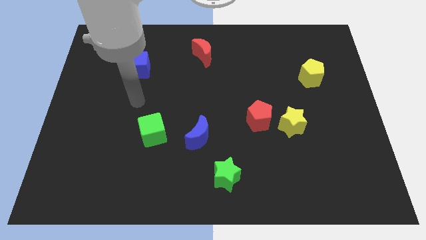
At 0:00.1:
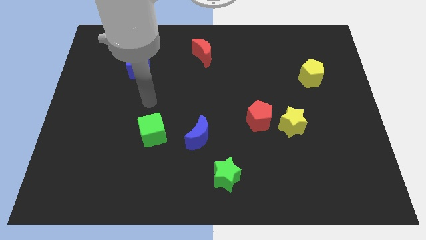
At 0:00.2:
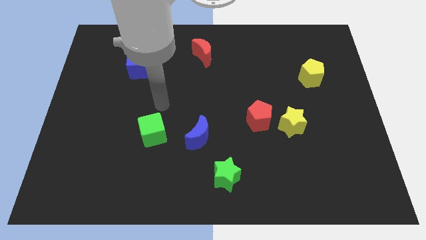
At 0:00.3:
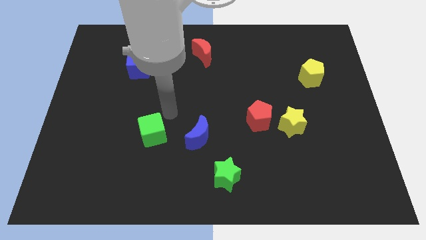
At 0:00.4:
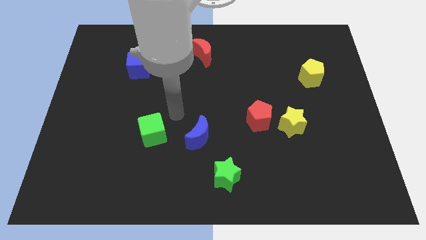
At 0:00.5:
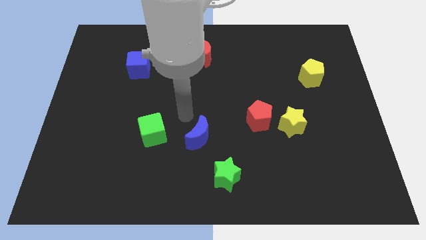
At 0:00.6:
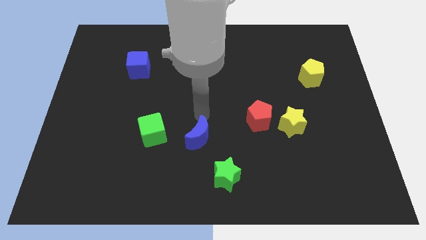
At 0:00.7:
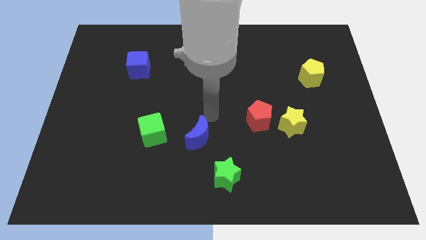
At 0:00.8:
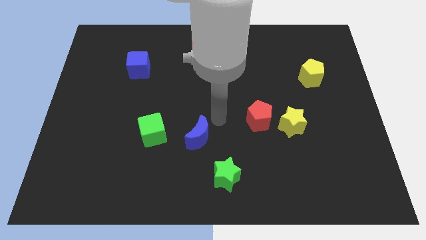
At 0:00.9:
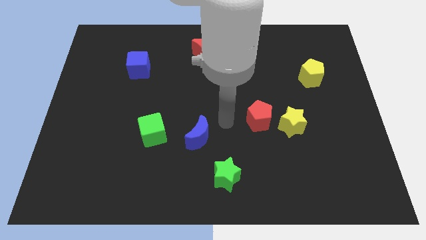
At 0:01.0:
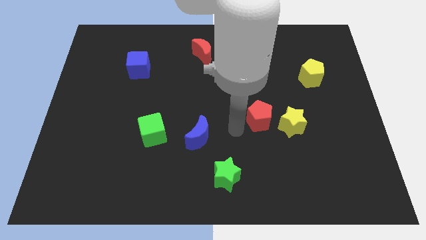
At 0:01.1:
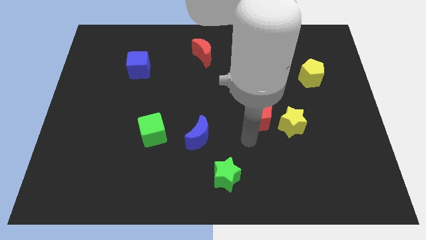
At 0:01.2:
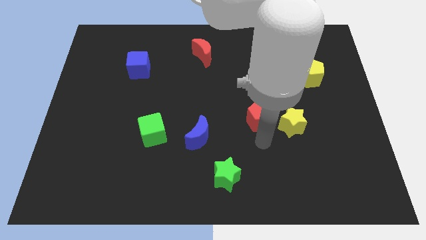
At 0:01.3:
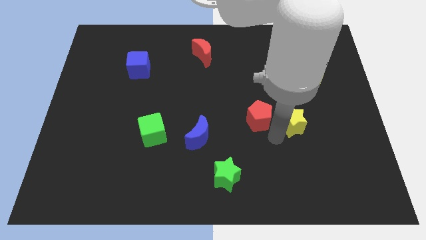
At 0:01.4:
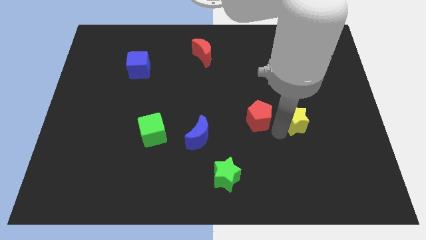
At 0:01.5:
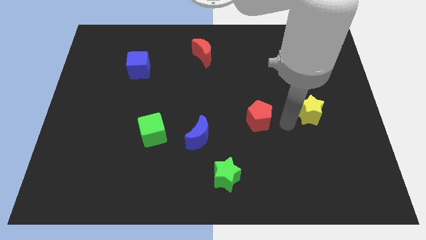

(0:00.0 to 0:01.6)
pull the red pentagon apart from the yellow star

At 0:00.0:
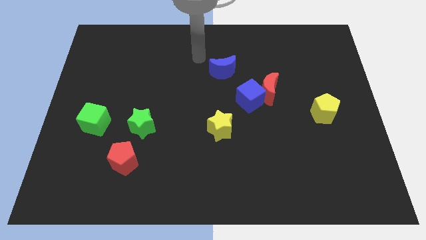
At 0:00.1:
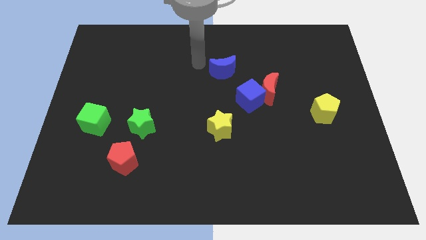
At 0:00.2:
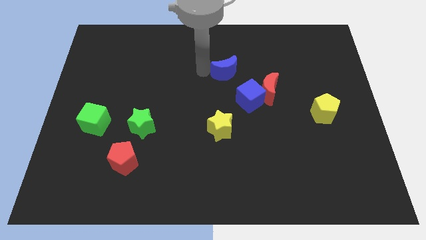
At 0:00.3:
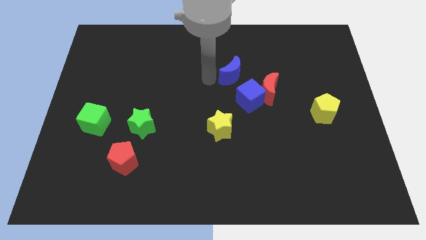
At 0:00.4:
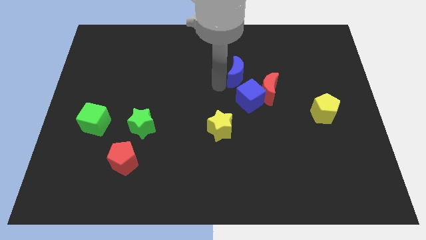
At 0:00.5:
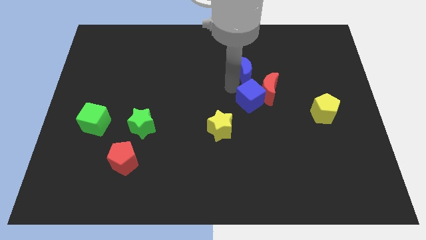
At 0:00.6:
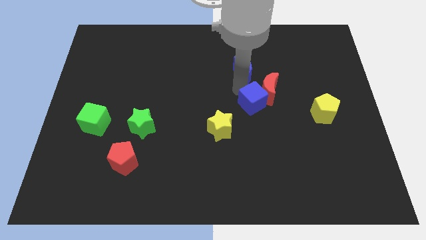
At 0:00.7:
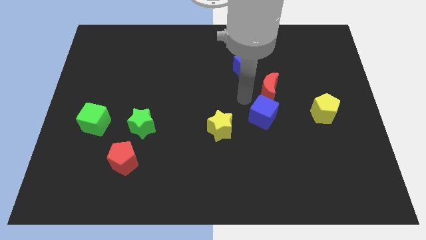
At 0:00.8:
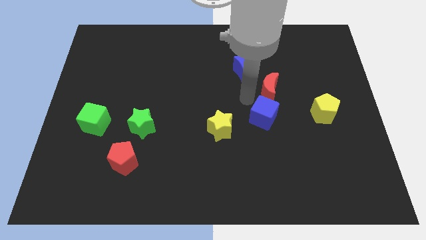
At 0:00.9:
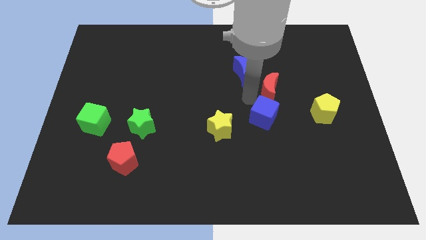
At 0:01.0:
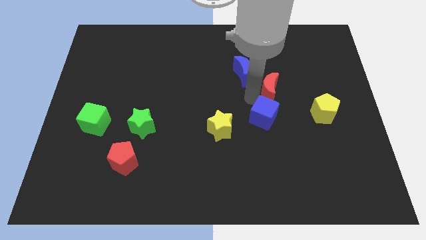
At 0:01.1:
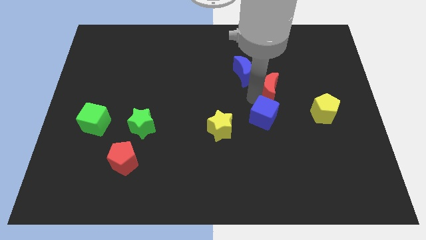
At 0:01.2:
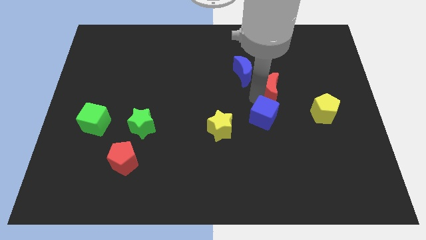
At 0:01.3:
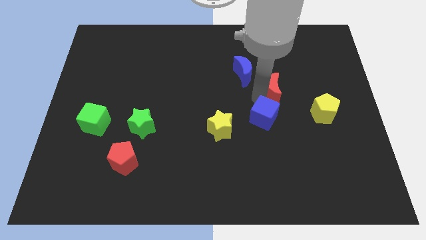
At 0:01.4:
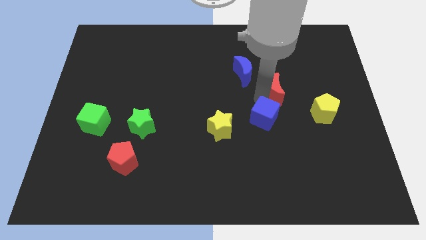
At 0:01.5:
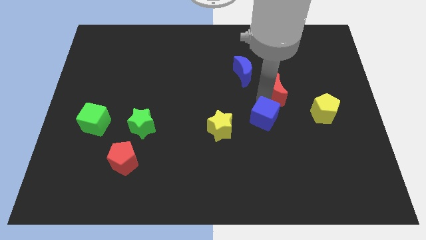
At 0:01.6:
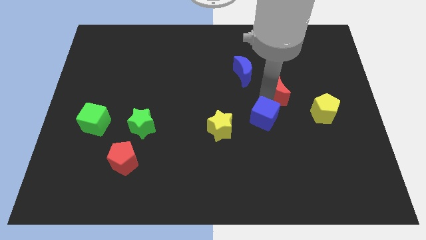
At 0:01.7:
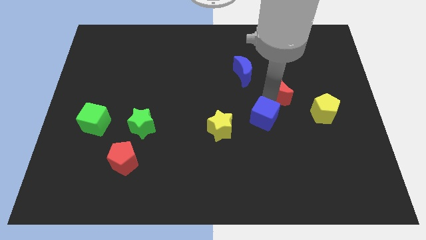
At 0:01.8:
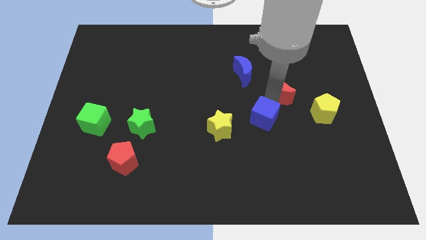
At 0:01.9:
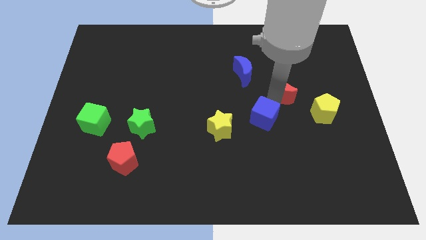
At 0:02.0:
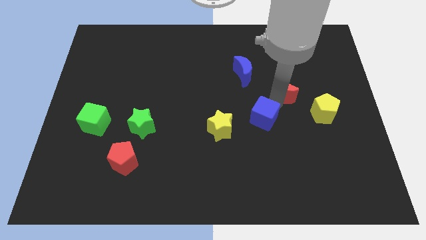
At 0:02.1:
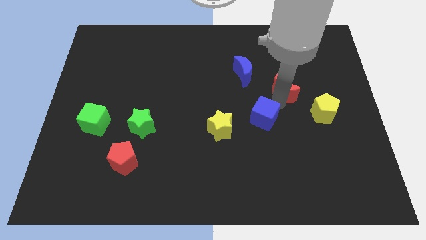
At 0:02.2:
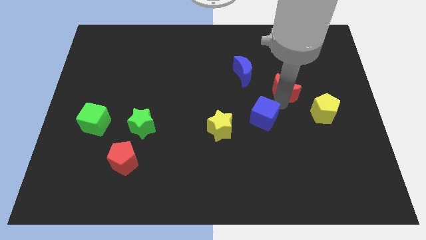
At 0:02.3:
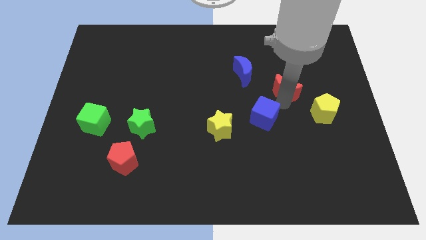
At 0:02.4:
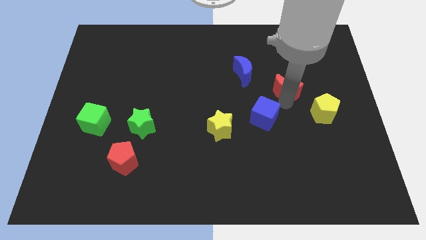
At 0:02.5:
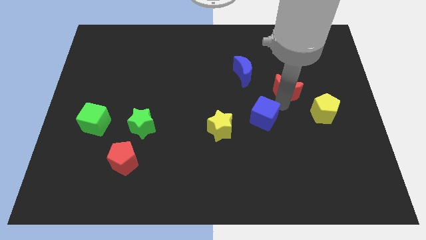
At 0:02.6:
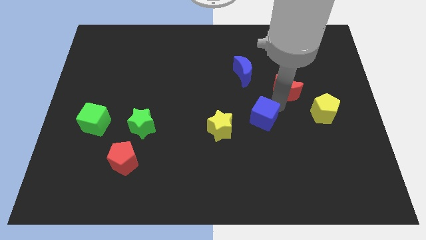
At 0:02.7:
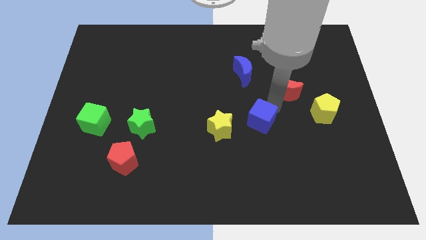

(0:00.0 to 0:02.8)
separate the red moon from the blue cube

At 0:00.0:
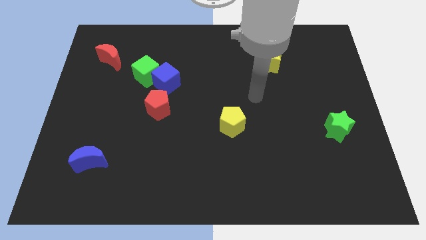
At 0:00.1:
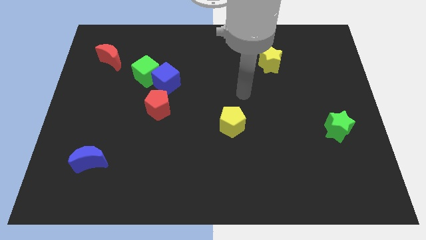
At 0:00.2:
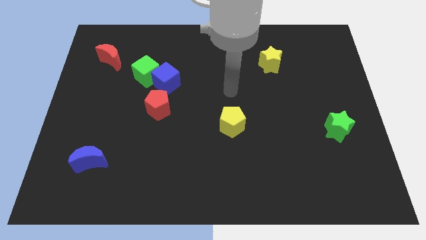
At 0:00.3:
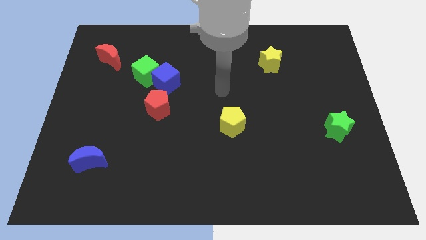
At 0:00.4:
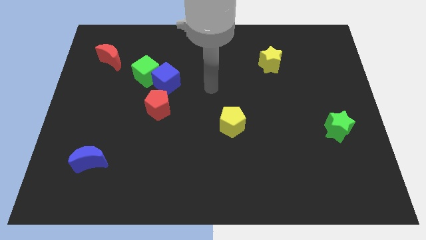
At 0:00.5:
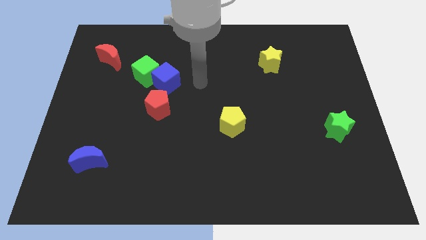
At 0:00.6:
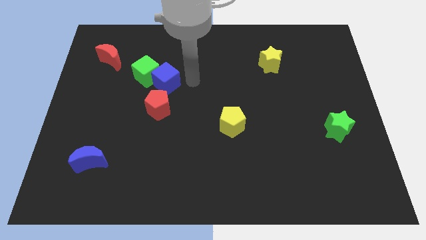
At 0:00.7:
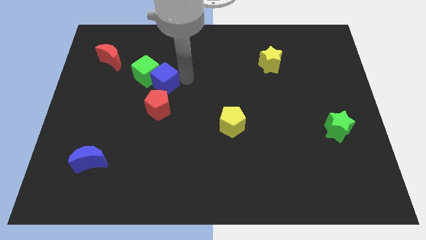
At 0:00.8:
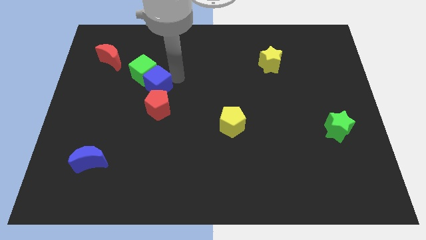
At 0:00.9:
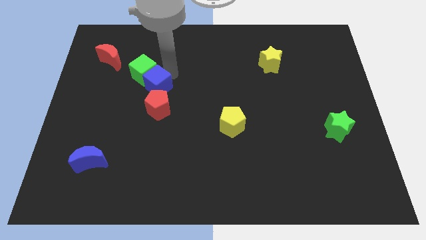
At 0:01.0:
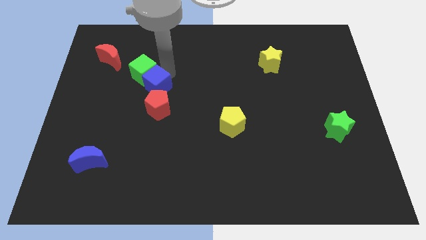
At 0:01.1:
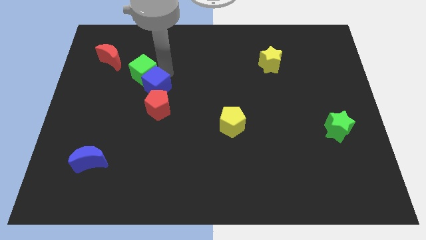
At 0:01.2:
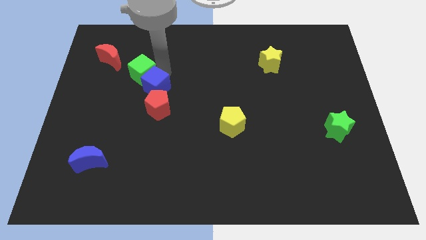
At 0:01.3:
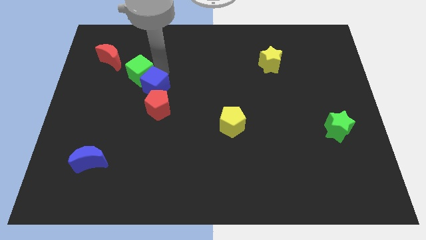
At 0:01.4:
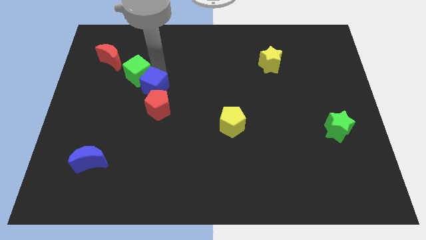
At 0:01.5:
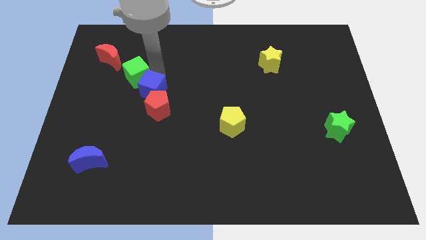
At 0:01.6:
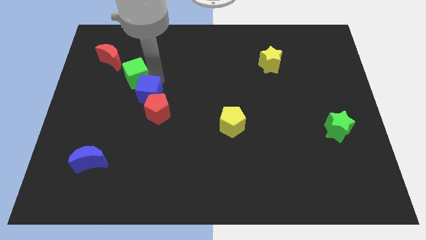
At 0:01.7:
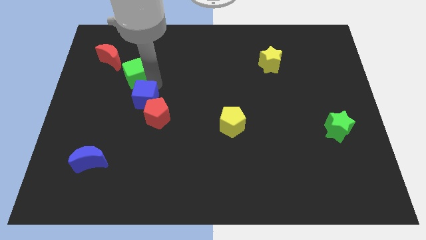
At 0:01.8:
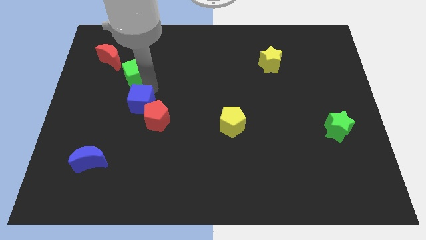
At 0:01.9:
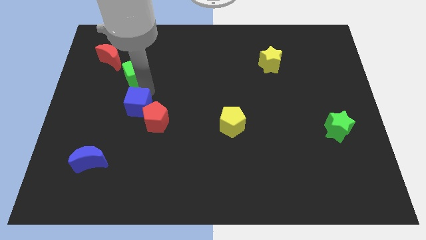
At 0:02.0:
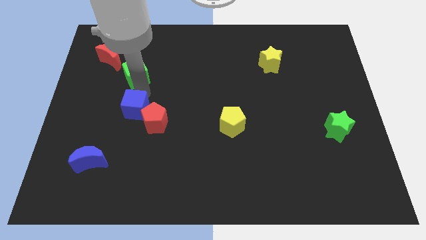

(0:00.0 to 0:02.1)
move the green cube away from the blue cube

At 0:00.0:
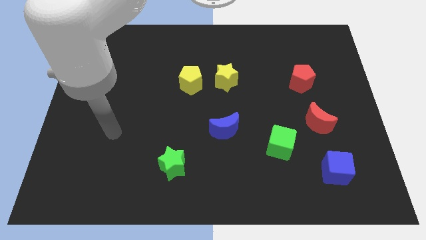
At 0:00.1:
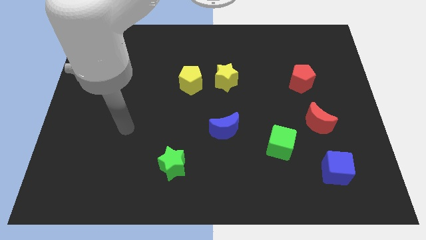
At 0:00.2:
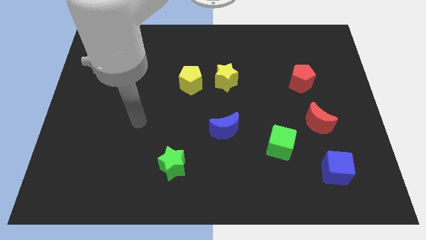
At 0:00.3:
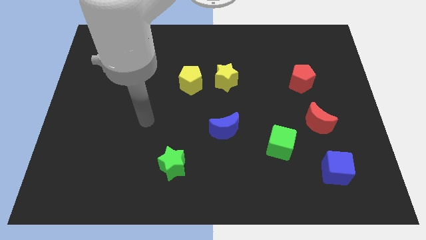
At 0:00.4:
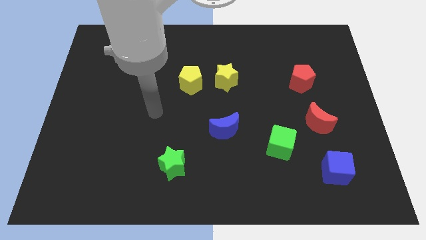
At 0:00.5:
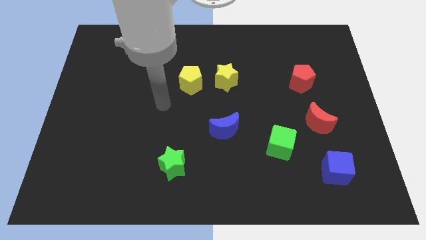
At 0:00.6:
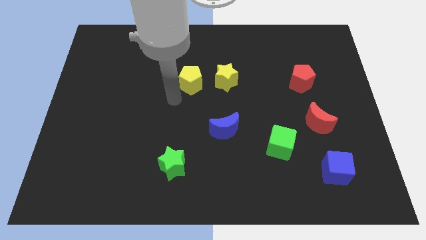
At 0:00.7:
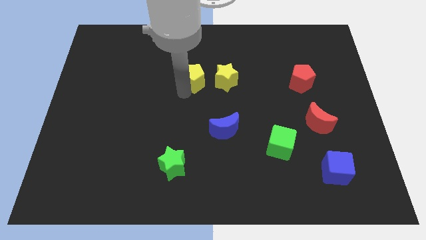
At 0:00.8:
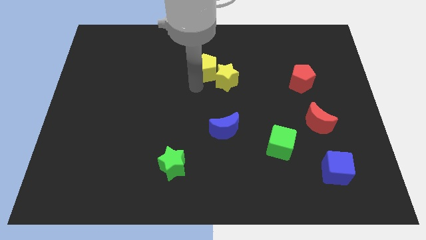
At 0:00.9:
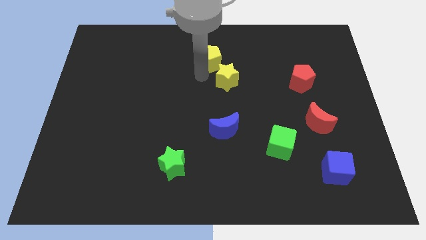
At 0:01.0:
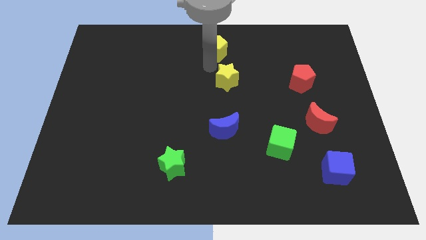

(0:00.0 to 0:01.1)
pull the yellow star apart from the yellow pentagon

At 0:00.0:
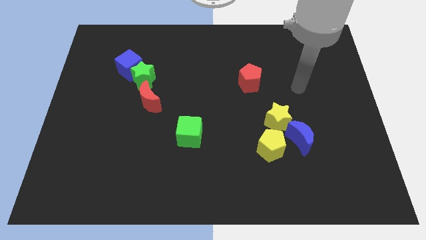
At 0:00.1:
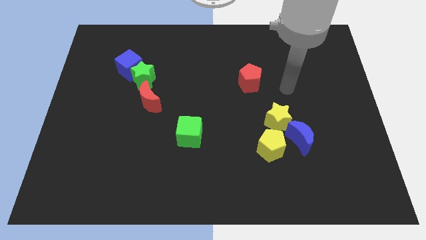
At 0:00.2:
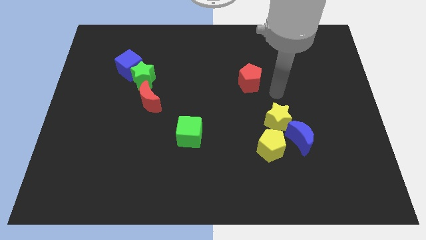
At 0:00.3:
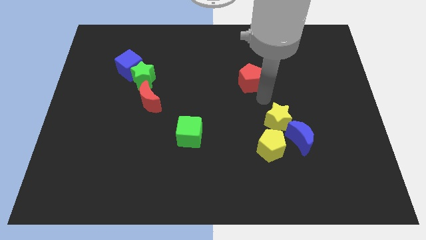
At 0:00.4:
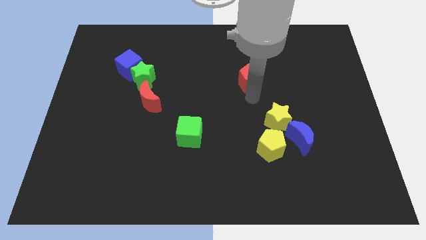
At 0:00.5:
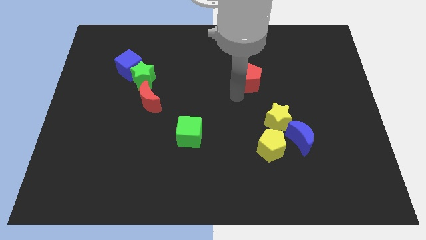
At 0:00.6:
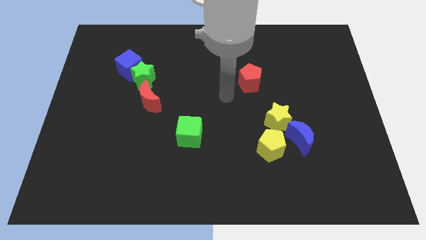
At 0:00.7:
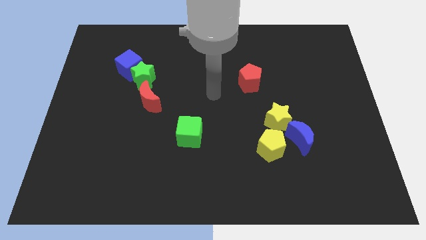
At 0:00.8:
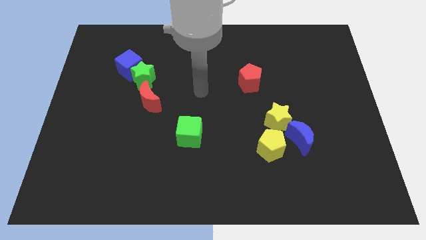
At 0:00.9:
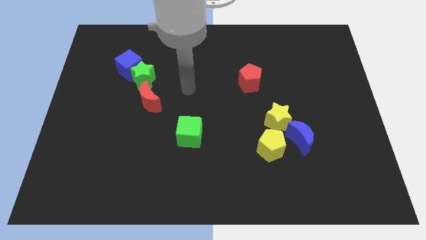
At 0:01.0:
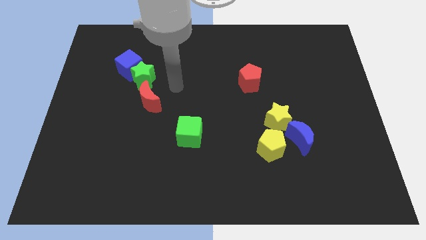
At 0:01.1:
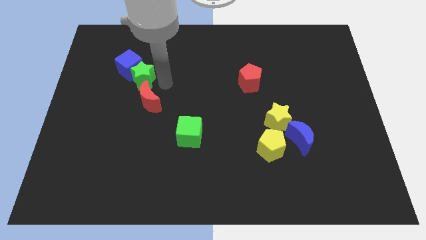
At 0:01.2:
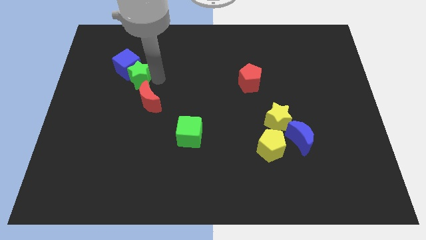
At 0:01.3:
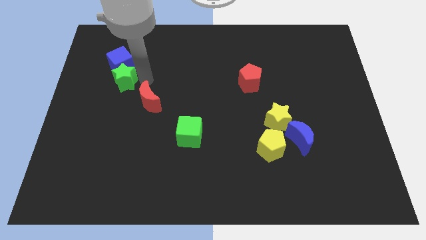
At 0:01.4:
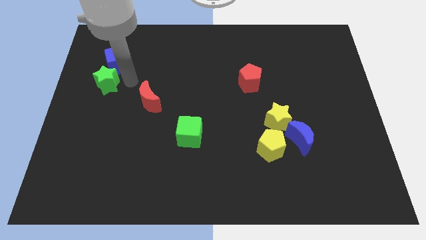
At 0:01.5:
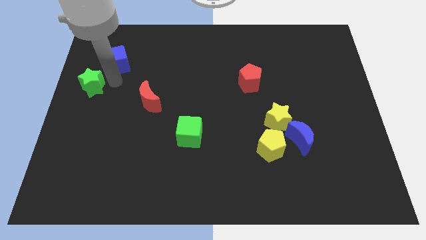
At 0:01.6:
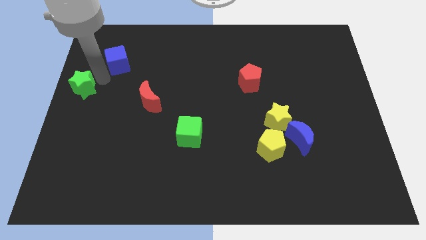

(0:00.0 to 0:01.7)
separate the blue cube from the green star
